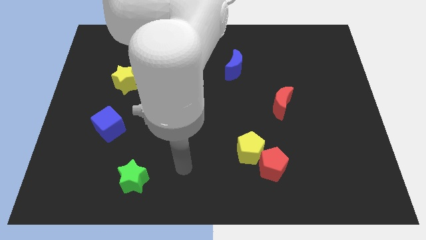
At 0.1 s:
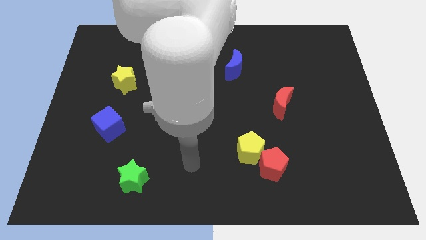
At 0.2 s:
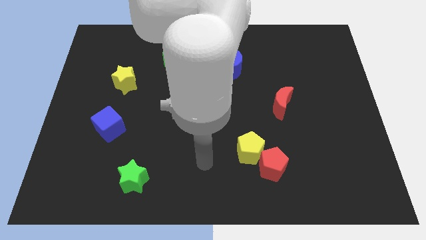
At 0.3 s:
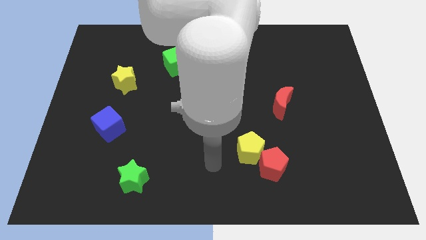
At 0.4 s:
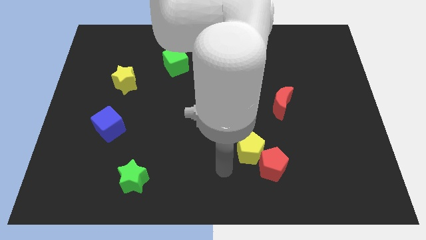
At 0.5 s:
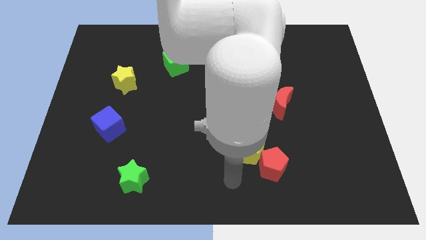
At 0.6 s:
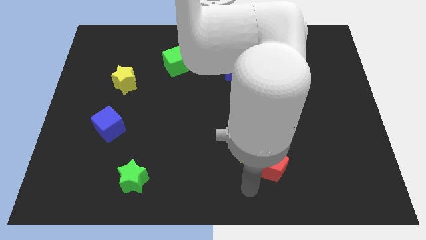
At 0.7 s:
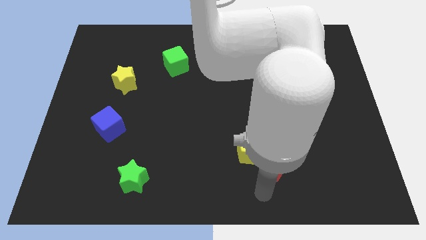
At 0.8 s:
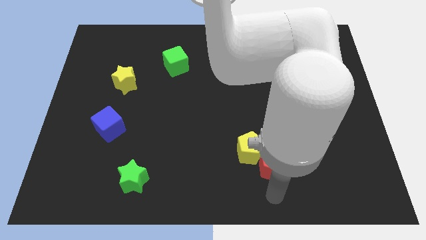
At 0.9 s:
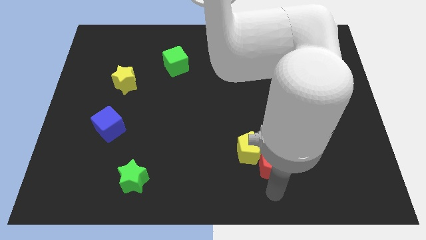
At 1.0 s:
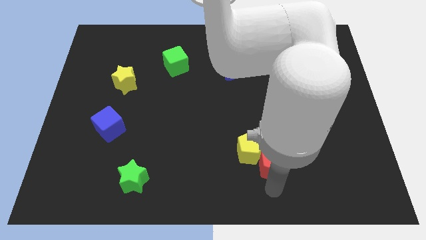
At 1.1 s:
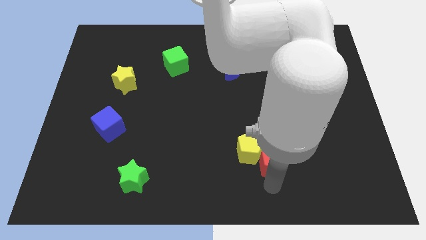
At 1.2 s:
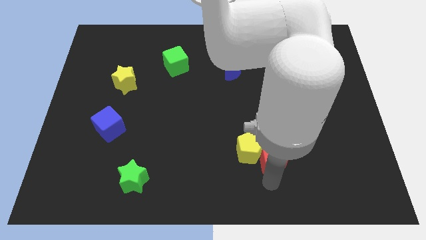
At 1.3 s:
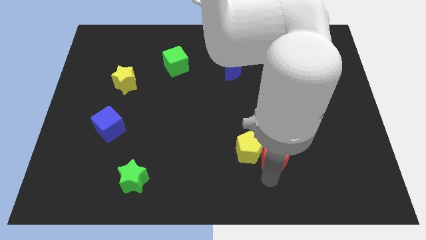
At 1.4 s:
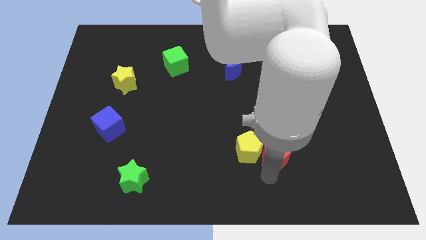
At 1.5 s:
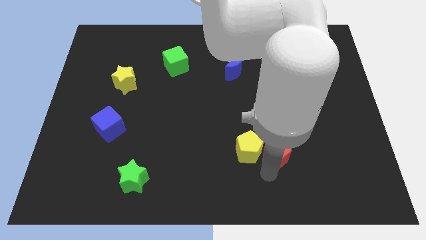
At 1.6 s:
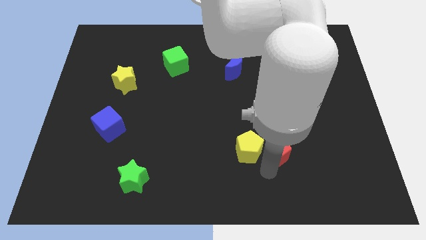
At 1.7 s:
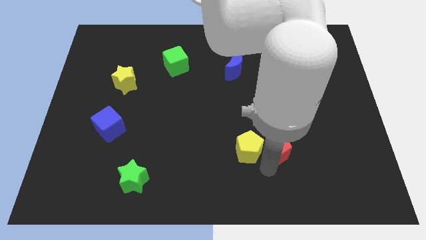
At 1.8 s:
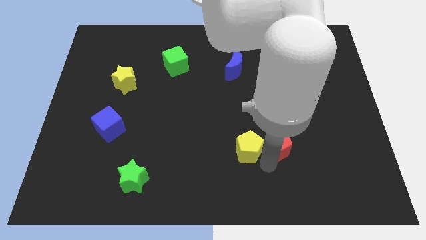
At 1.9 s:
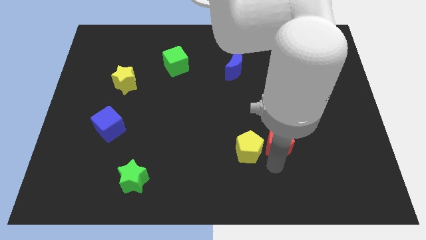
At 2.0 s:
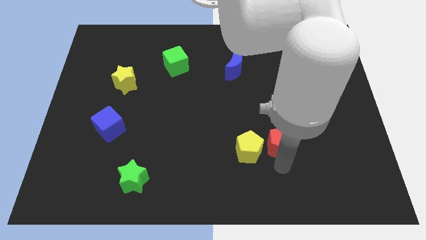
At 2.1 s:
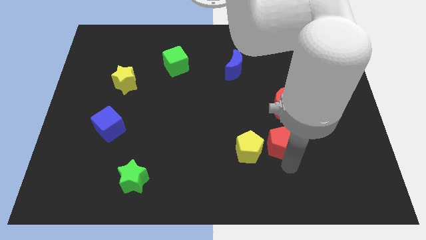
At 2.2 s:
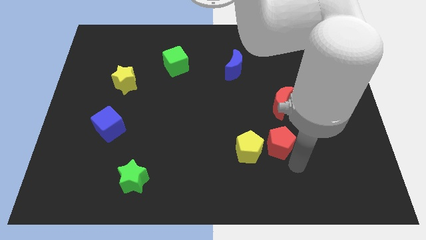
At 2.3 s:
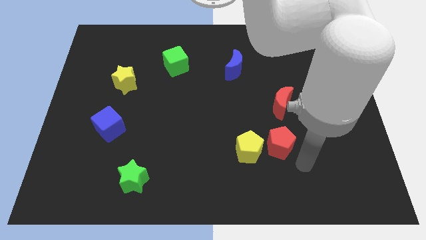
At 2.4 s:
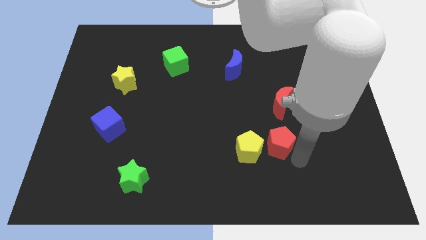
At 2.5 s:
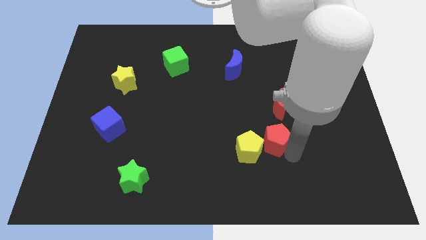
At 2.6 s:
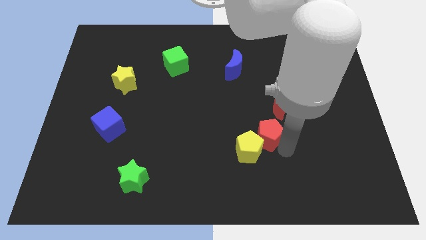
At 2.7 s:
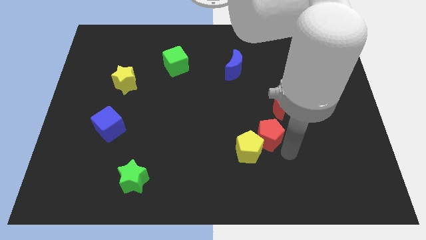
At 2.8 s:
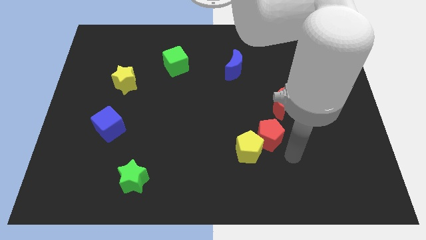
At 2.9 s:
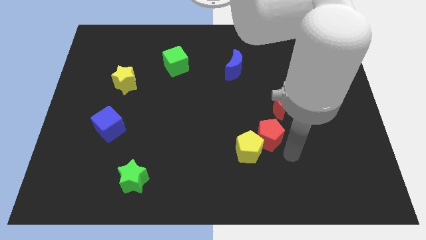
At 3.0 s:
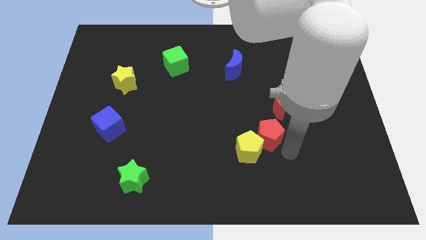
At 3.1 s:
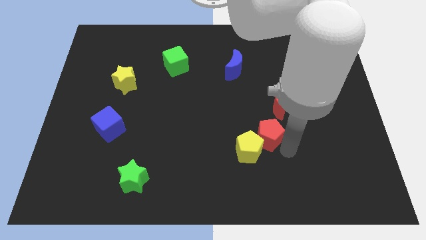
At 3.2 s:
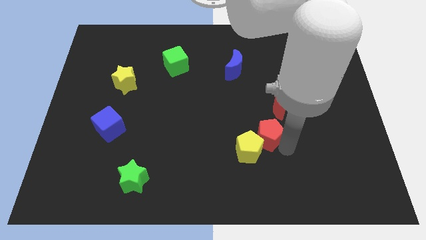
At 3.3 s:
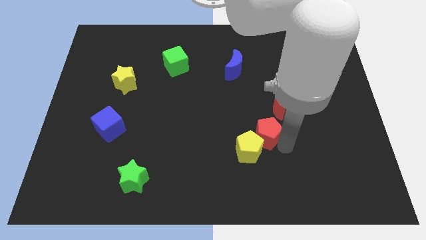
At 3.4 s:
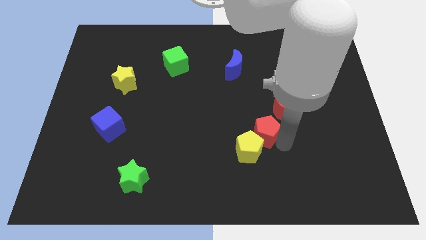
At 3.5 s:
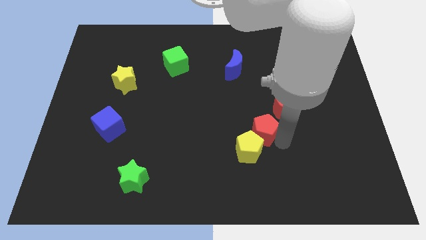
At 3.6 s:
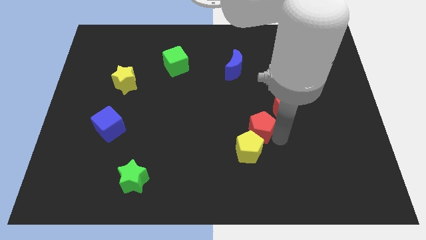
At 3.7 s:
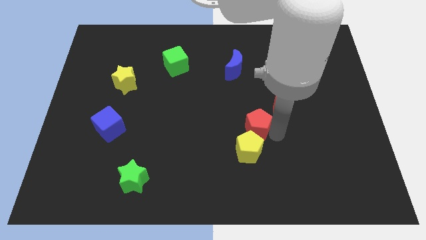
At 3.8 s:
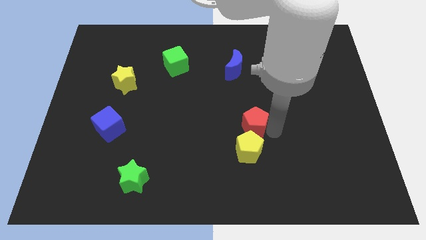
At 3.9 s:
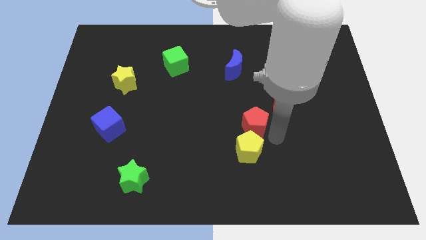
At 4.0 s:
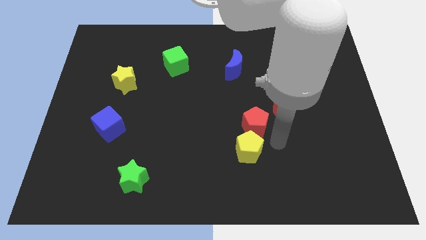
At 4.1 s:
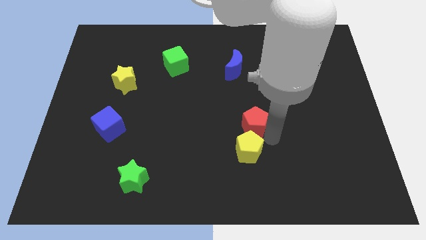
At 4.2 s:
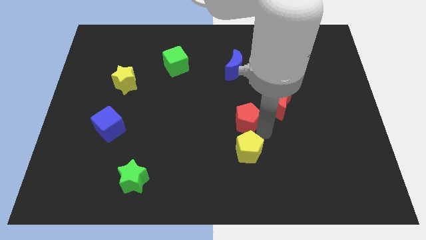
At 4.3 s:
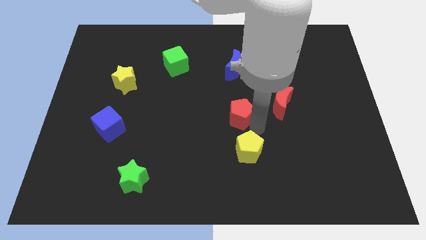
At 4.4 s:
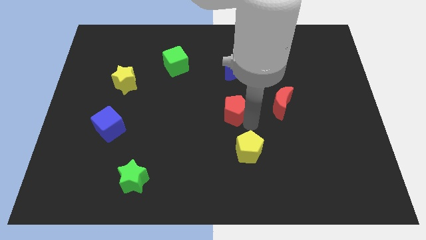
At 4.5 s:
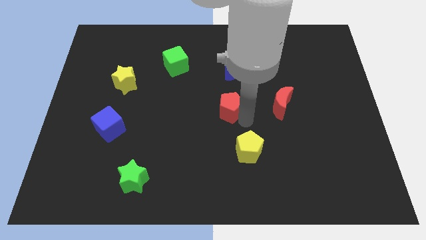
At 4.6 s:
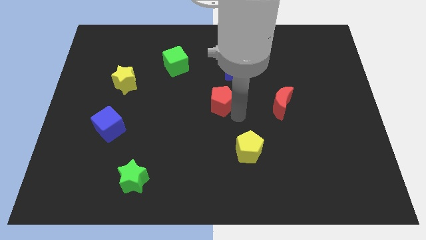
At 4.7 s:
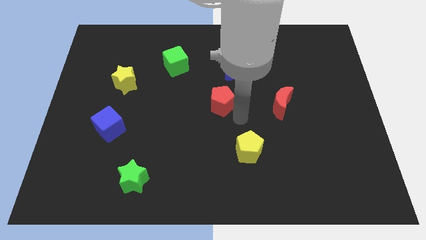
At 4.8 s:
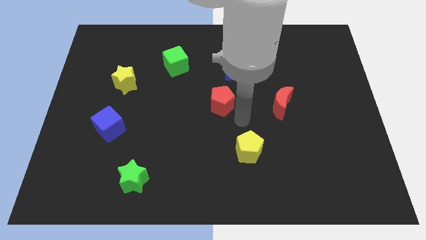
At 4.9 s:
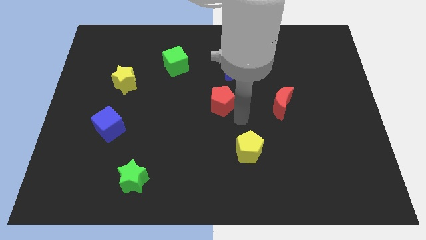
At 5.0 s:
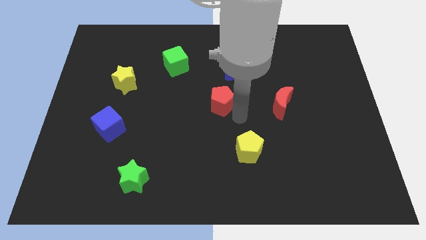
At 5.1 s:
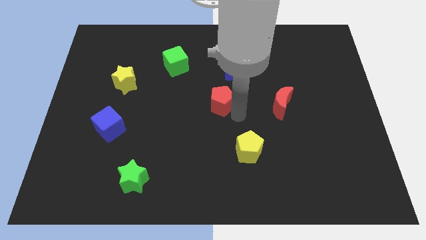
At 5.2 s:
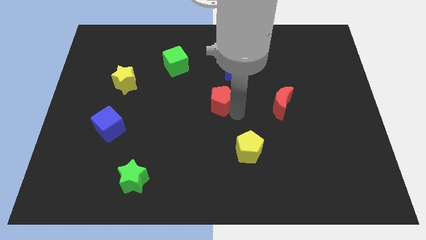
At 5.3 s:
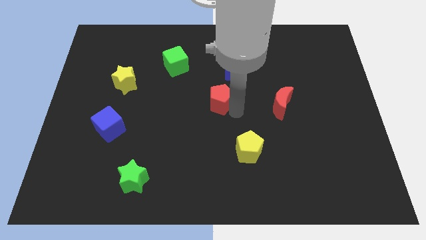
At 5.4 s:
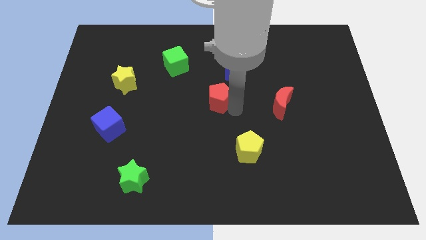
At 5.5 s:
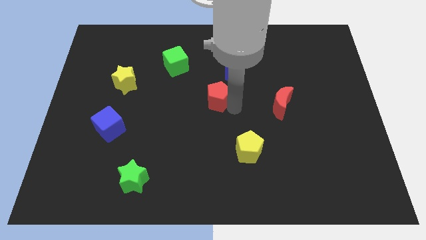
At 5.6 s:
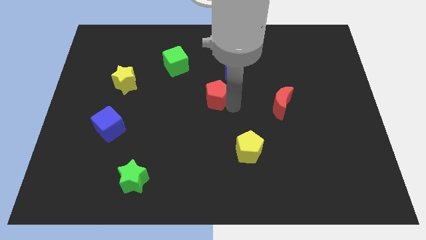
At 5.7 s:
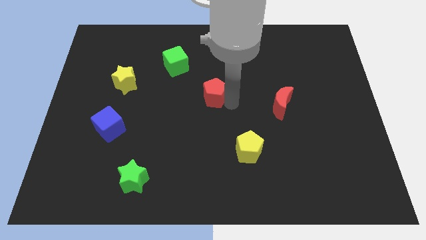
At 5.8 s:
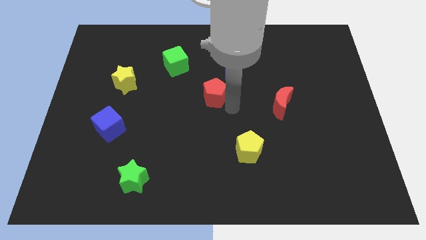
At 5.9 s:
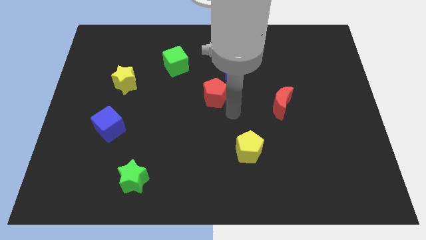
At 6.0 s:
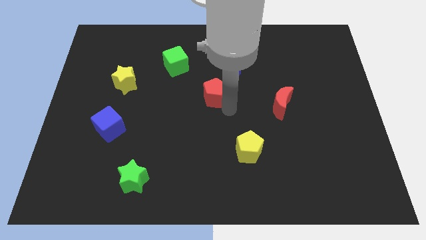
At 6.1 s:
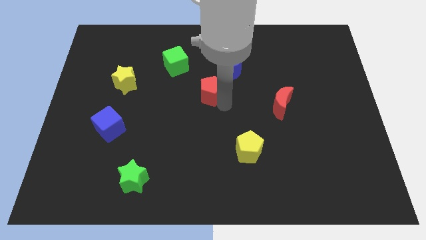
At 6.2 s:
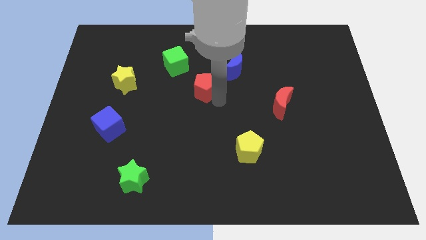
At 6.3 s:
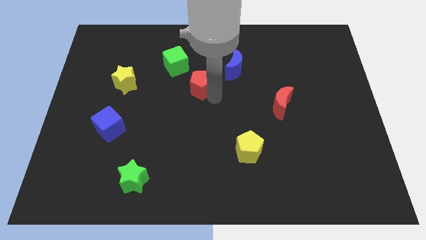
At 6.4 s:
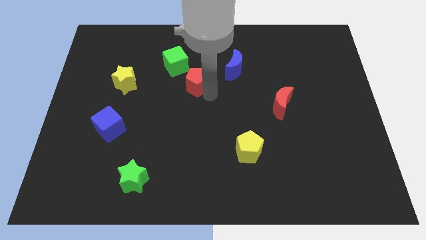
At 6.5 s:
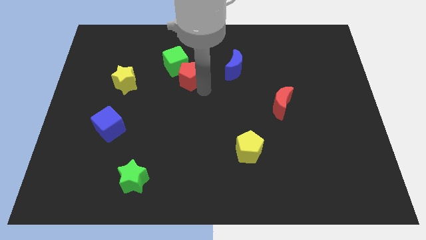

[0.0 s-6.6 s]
move the red pentagon next to the green cube

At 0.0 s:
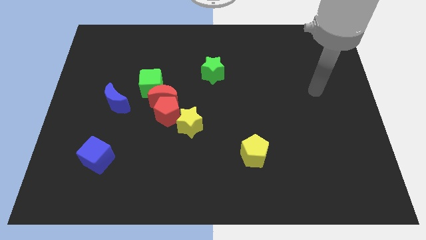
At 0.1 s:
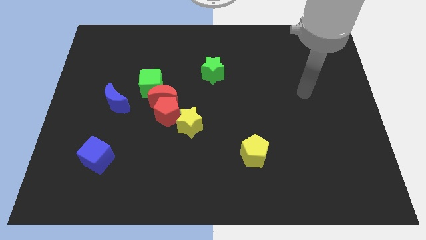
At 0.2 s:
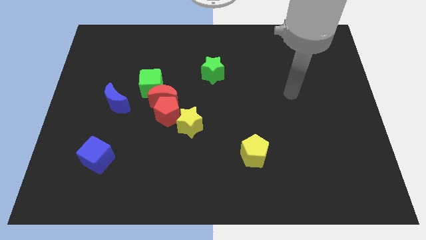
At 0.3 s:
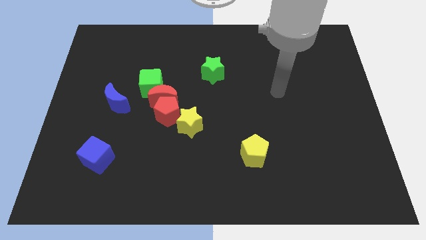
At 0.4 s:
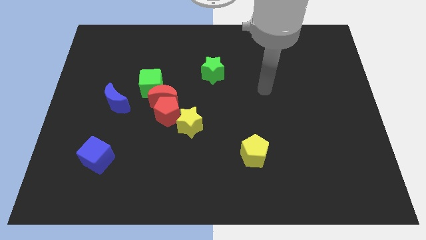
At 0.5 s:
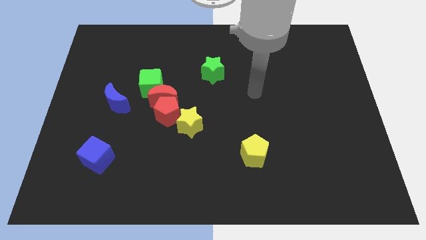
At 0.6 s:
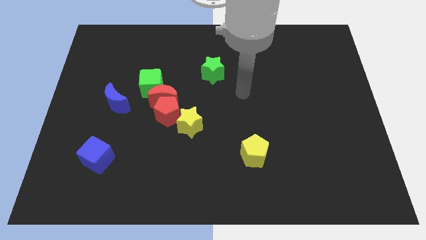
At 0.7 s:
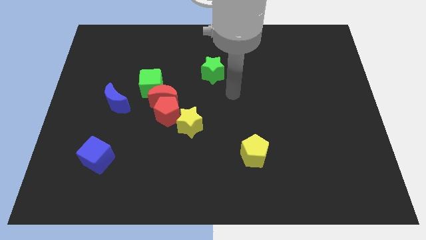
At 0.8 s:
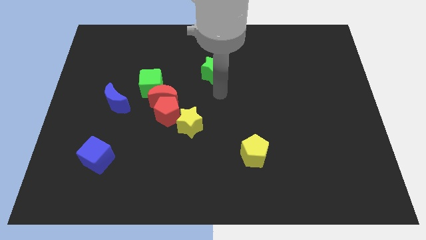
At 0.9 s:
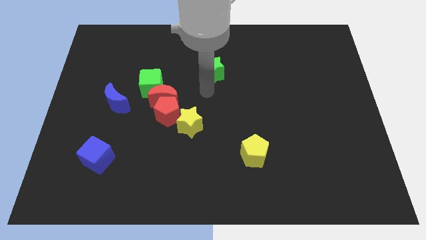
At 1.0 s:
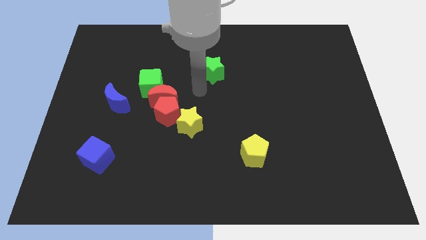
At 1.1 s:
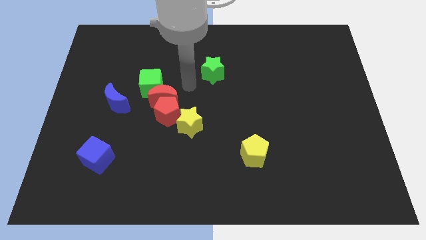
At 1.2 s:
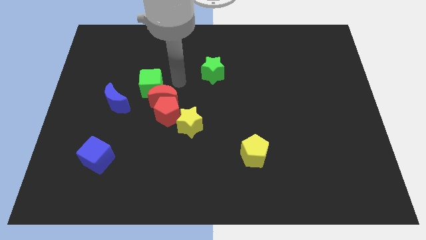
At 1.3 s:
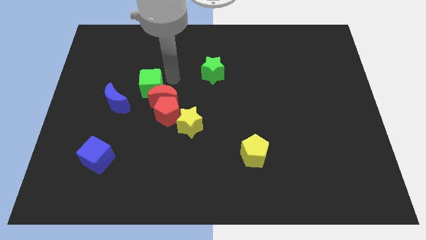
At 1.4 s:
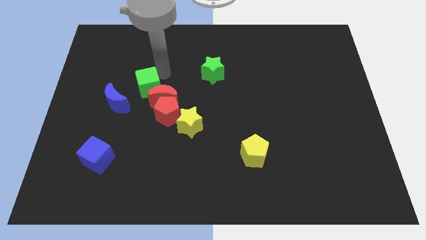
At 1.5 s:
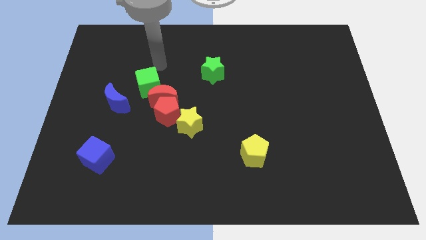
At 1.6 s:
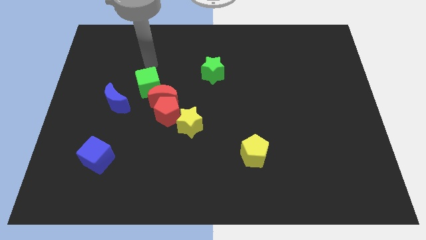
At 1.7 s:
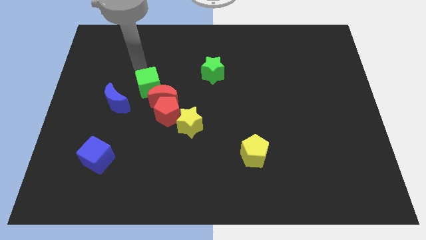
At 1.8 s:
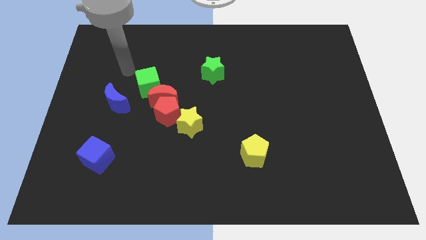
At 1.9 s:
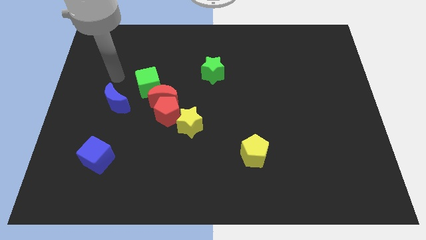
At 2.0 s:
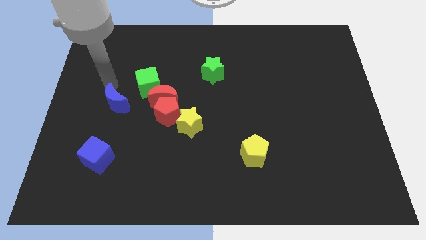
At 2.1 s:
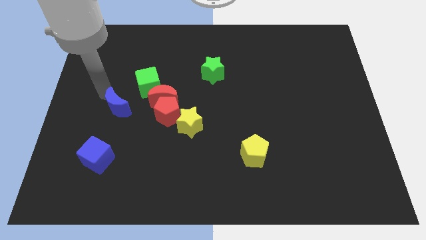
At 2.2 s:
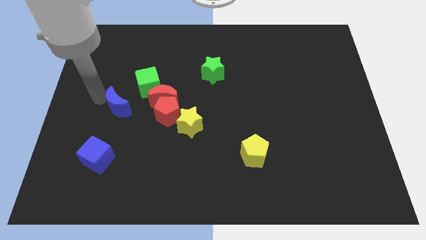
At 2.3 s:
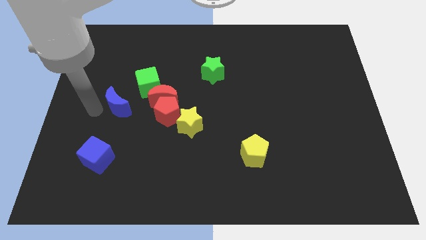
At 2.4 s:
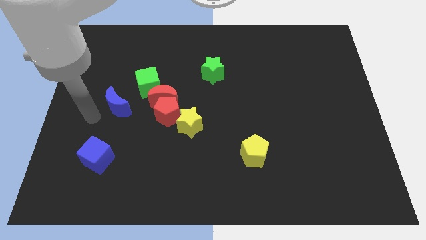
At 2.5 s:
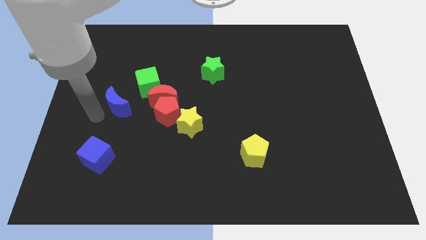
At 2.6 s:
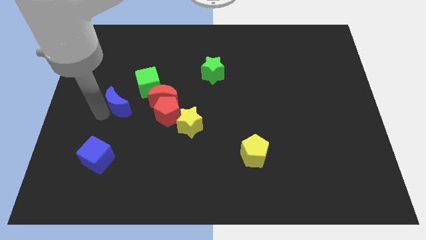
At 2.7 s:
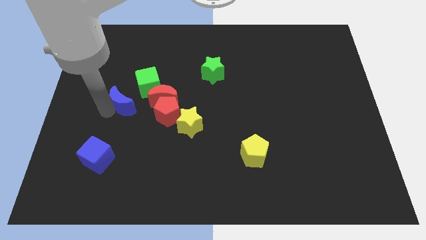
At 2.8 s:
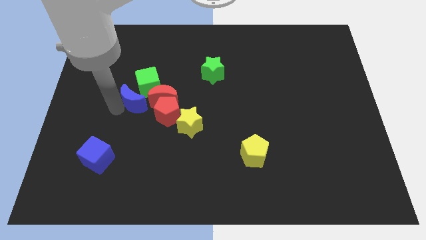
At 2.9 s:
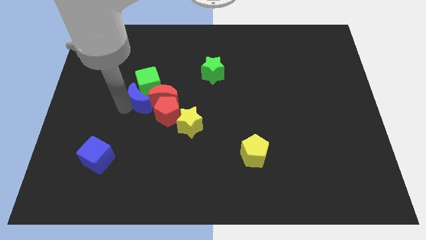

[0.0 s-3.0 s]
put the blue moon to the green cube
